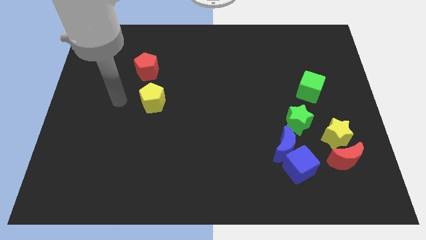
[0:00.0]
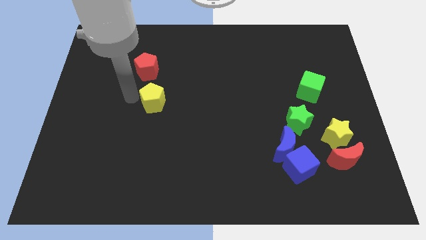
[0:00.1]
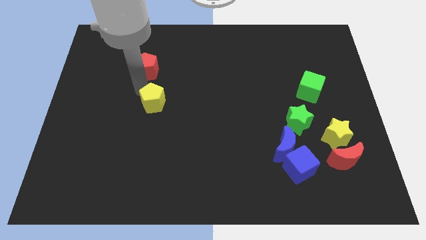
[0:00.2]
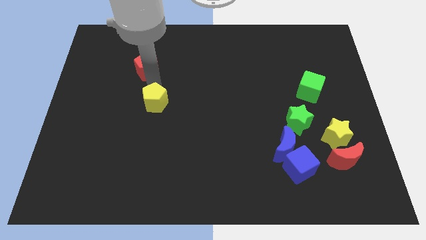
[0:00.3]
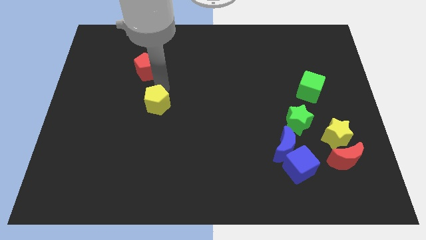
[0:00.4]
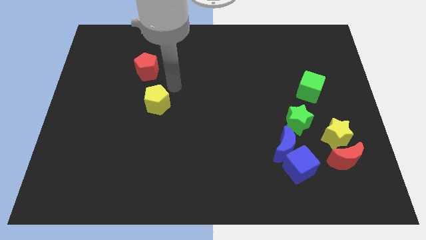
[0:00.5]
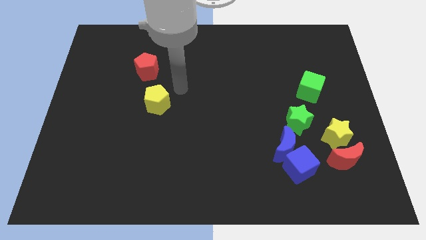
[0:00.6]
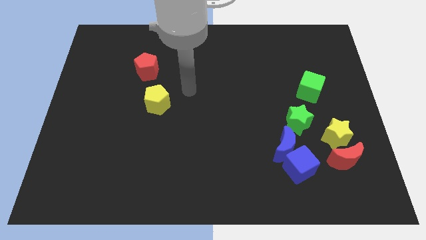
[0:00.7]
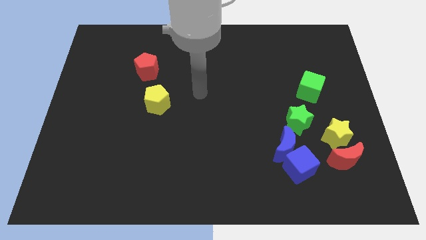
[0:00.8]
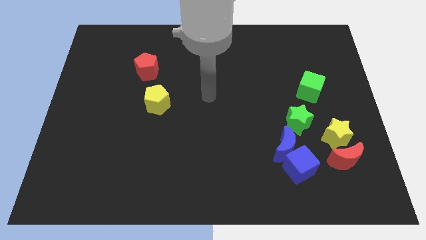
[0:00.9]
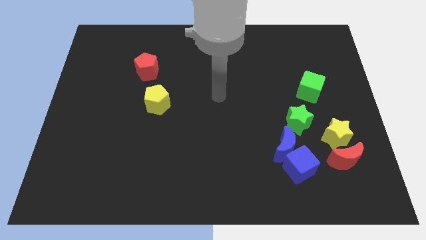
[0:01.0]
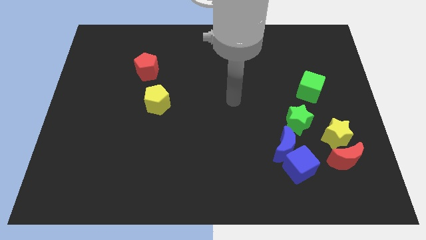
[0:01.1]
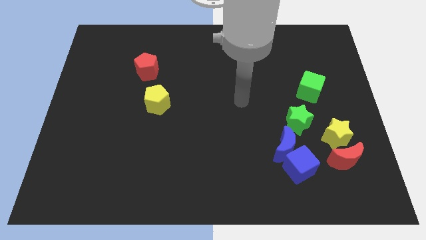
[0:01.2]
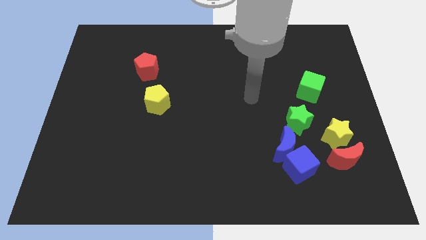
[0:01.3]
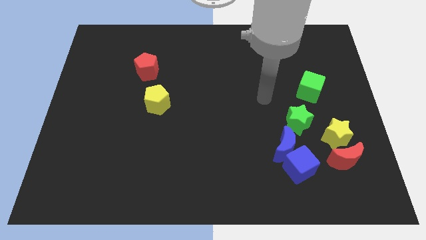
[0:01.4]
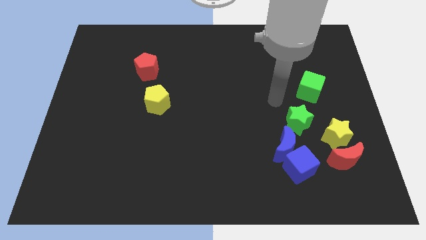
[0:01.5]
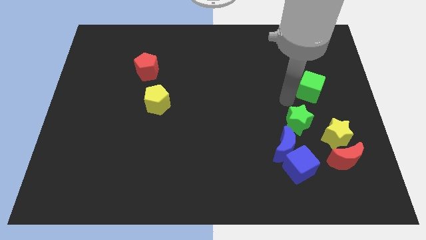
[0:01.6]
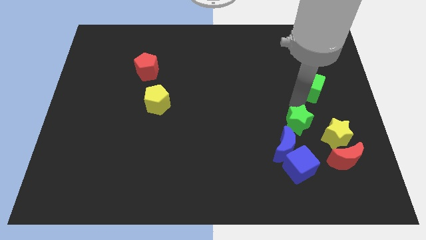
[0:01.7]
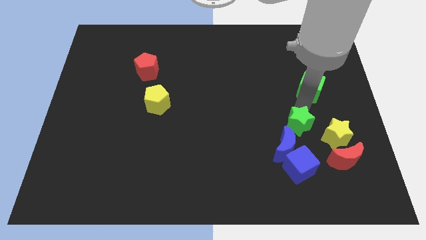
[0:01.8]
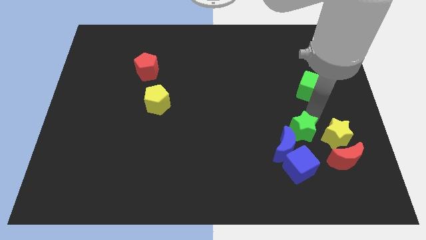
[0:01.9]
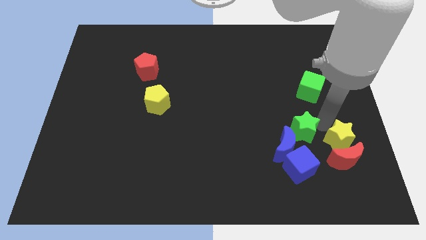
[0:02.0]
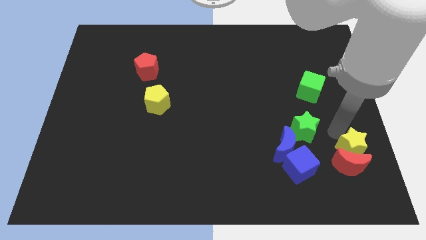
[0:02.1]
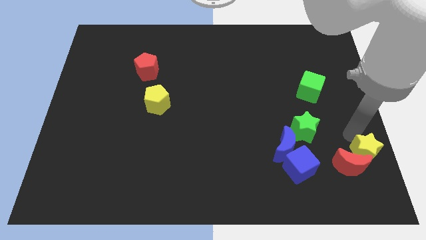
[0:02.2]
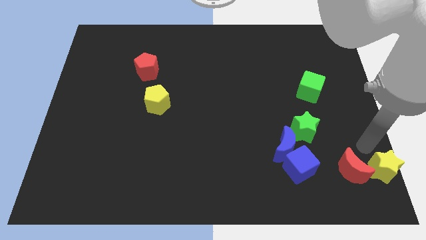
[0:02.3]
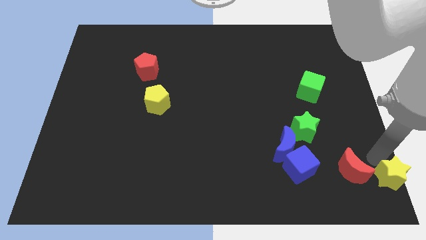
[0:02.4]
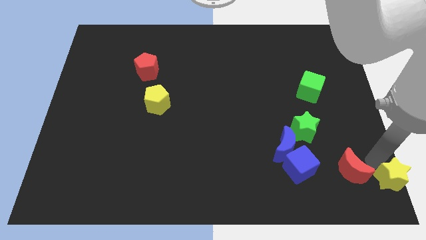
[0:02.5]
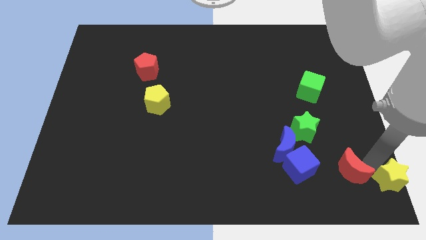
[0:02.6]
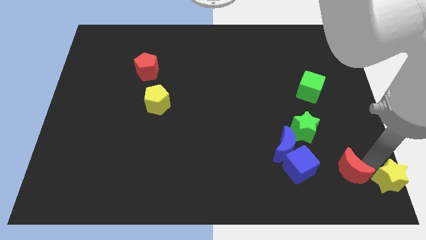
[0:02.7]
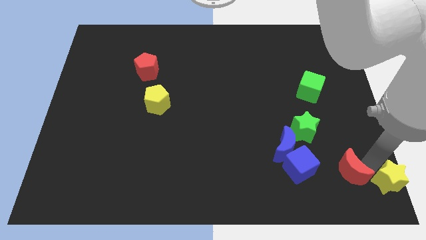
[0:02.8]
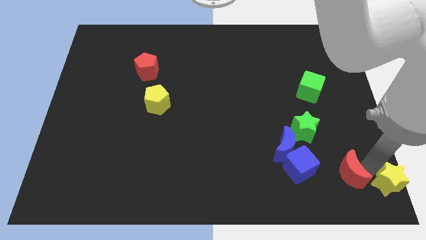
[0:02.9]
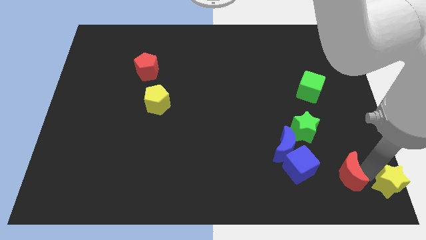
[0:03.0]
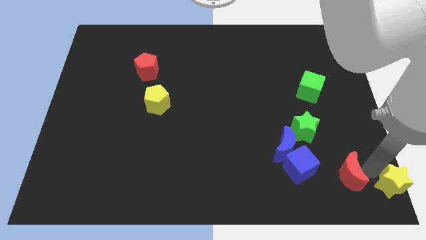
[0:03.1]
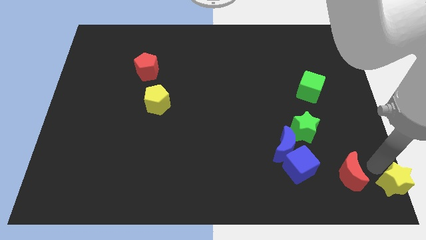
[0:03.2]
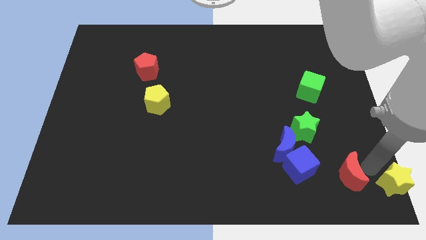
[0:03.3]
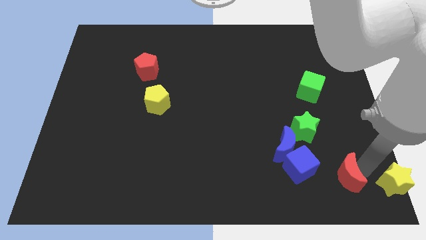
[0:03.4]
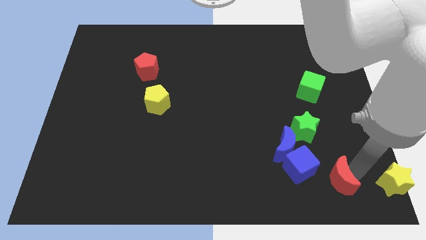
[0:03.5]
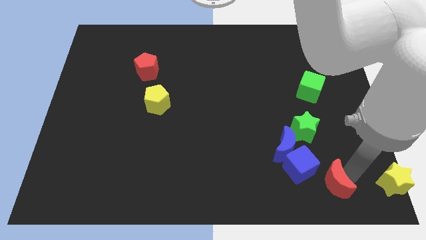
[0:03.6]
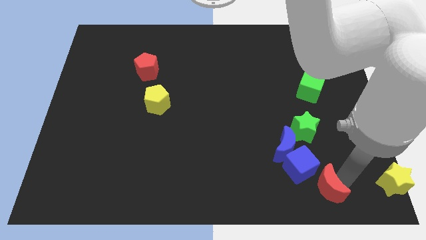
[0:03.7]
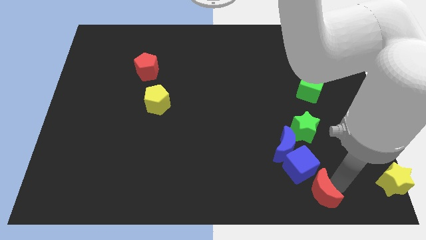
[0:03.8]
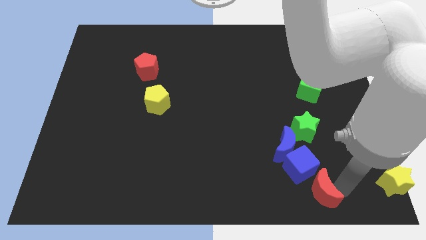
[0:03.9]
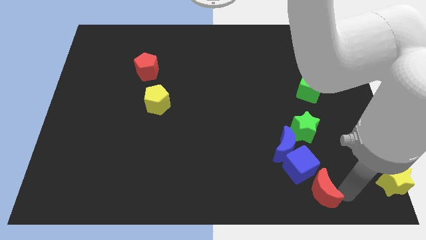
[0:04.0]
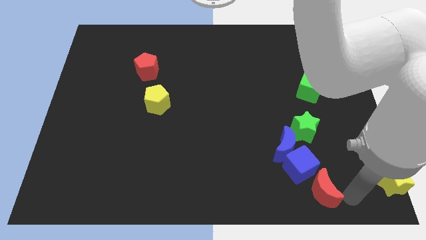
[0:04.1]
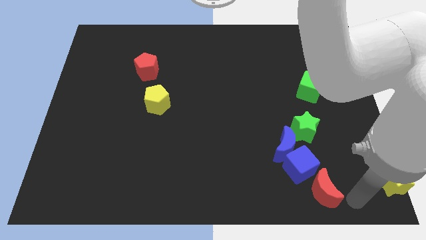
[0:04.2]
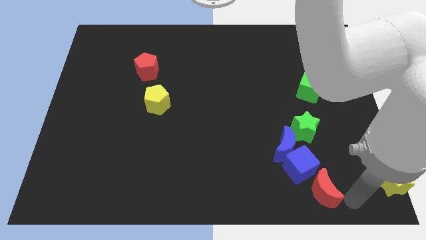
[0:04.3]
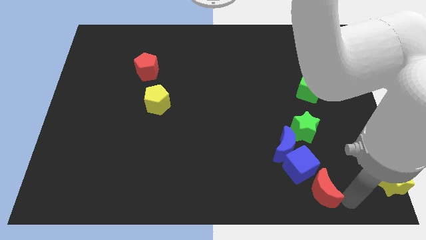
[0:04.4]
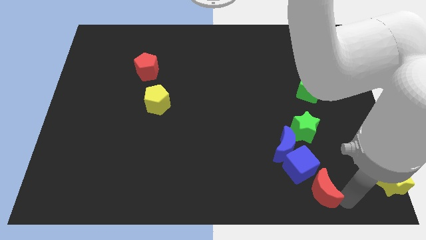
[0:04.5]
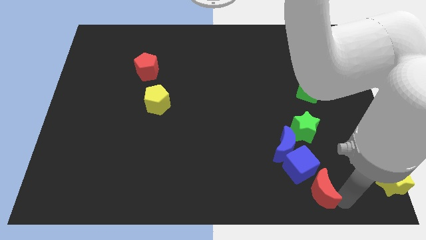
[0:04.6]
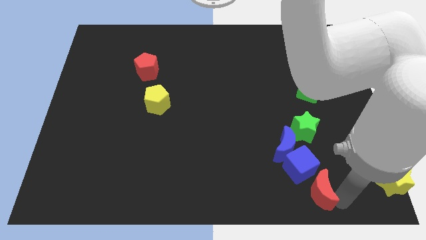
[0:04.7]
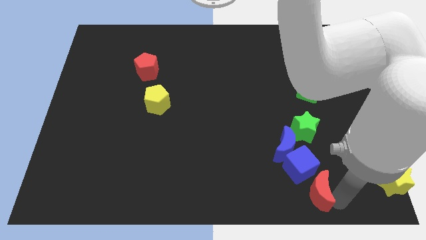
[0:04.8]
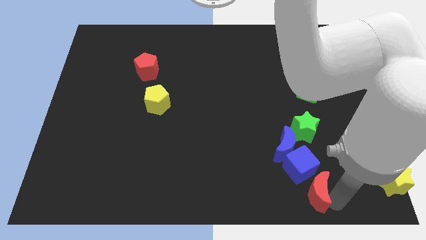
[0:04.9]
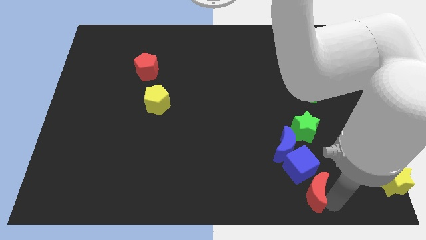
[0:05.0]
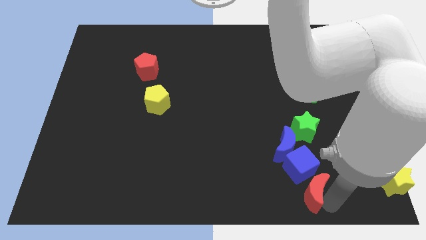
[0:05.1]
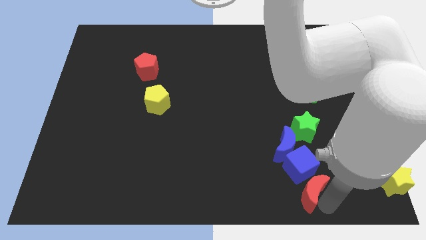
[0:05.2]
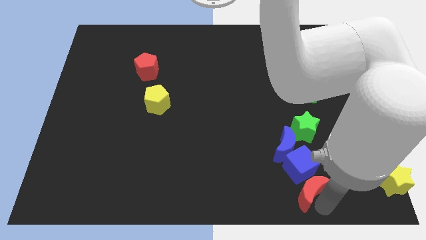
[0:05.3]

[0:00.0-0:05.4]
slightly move the red moon left

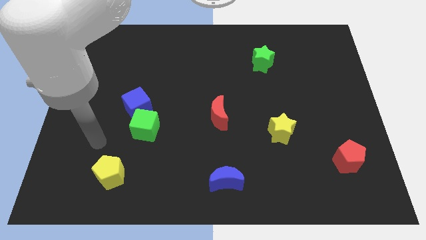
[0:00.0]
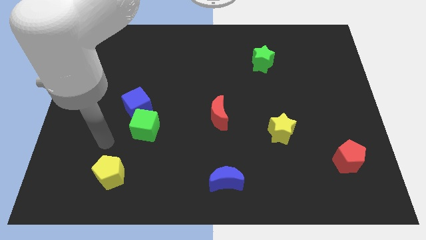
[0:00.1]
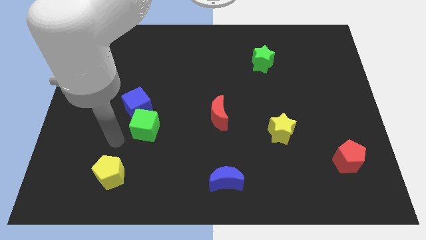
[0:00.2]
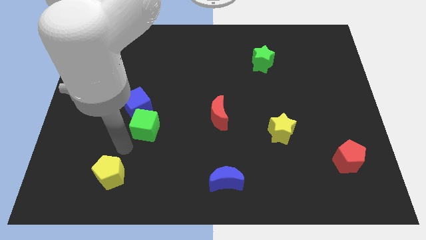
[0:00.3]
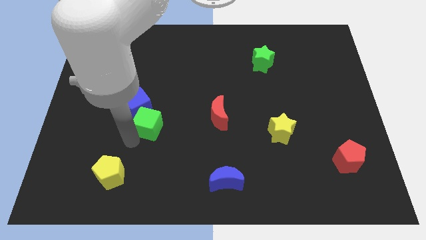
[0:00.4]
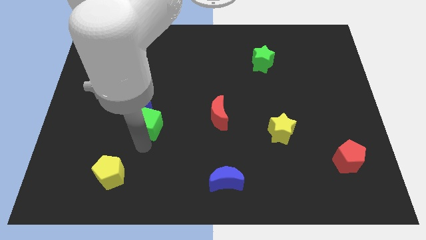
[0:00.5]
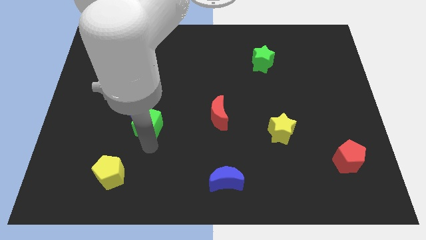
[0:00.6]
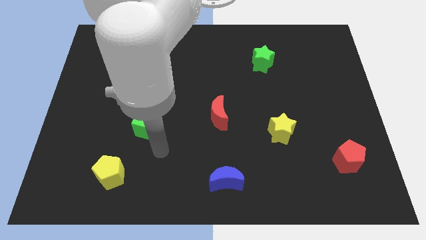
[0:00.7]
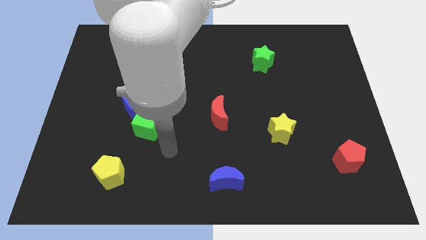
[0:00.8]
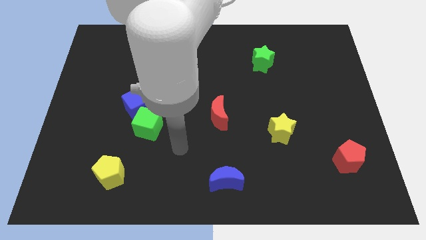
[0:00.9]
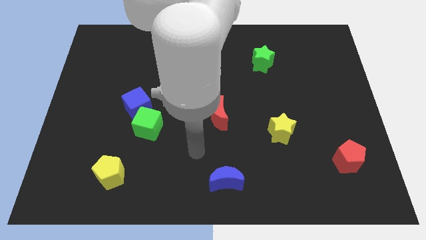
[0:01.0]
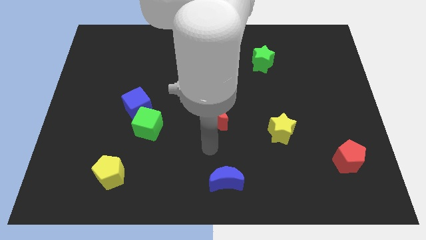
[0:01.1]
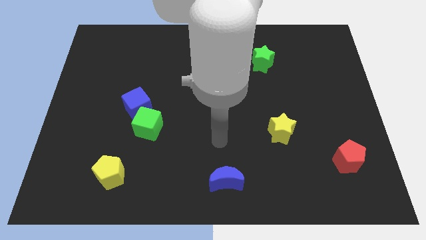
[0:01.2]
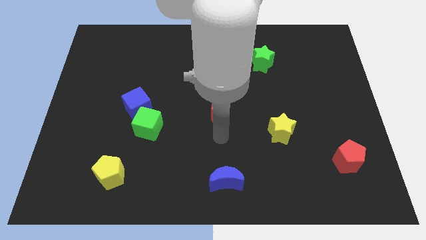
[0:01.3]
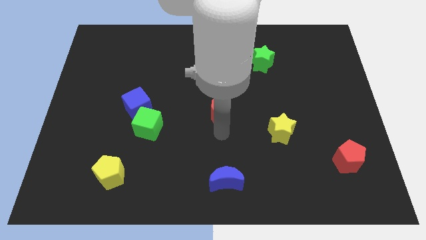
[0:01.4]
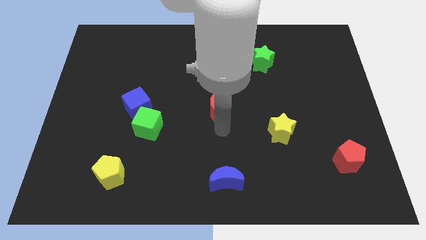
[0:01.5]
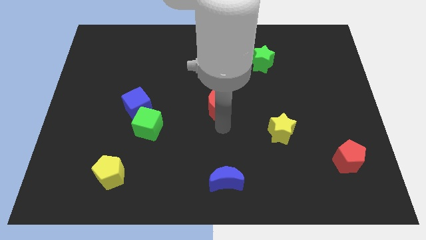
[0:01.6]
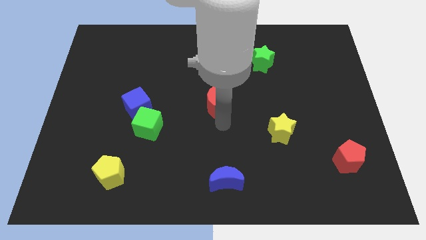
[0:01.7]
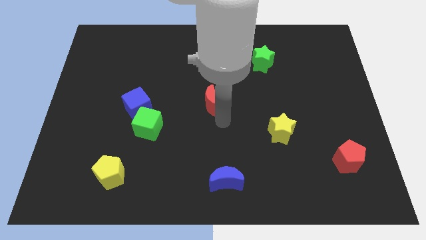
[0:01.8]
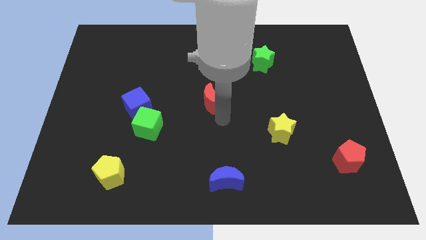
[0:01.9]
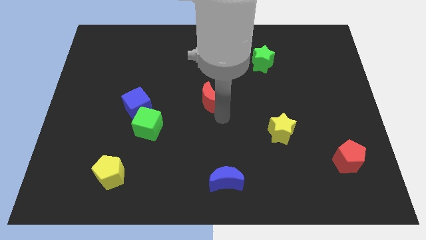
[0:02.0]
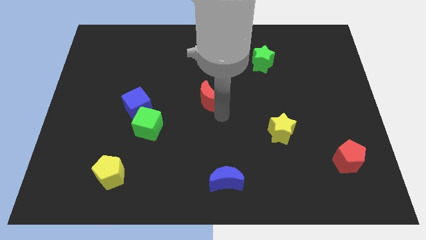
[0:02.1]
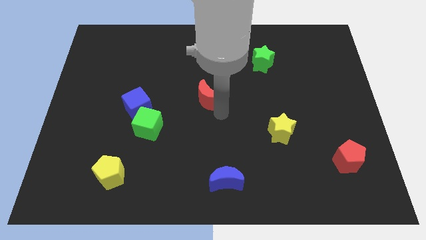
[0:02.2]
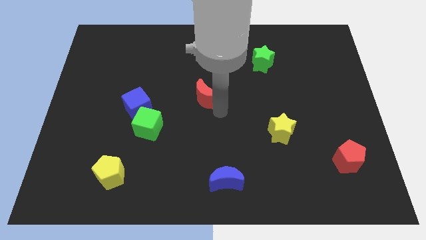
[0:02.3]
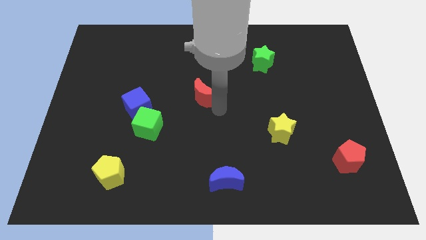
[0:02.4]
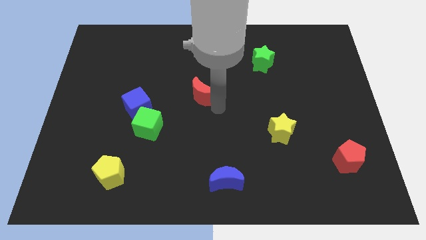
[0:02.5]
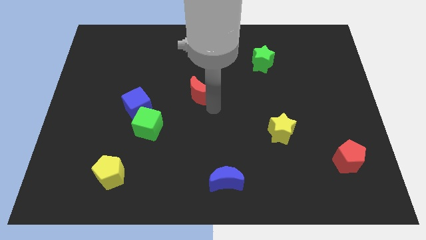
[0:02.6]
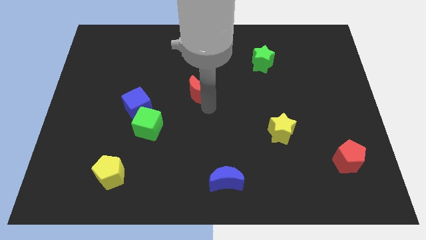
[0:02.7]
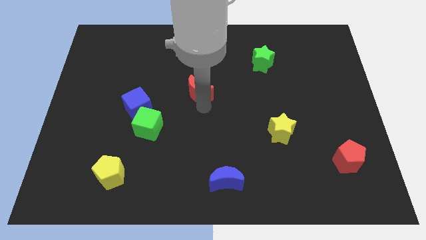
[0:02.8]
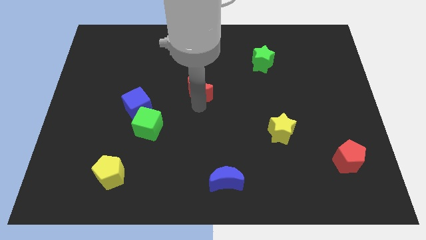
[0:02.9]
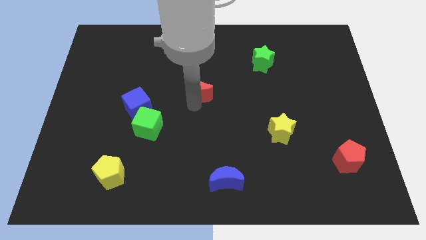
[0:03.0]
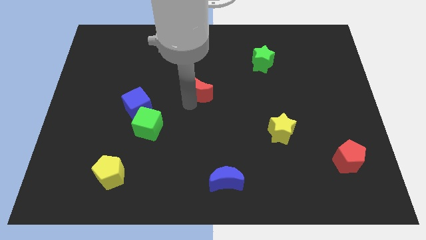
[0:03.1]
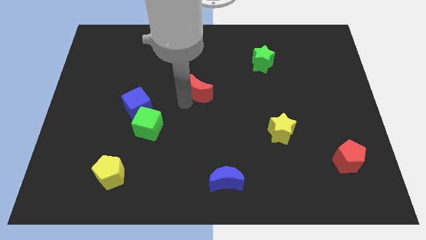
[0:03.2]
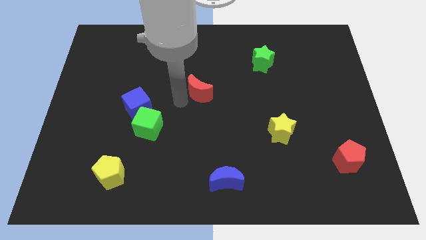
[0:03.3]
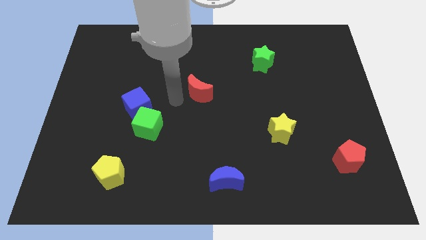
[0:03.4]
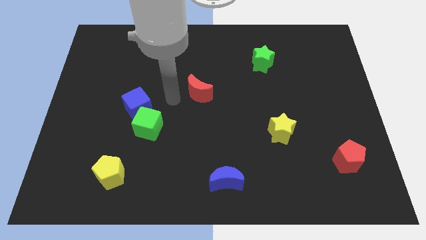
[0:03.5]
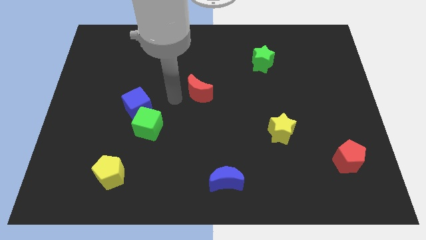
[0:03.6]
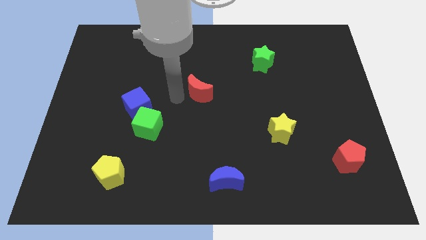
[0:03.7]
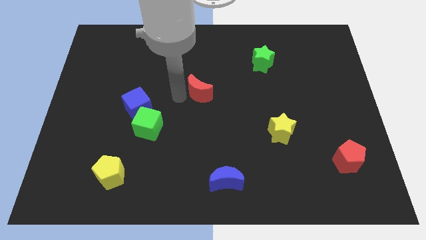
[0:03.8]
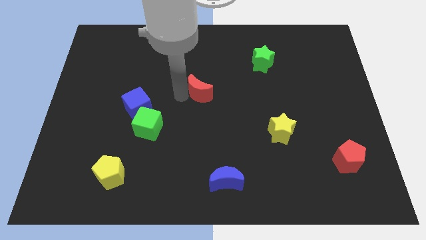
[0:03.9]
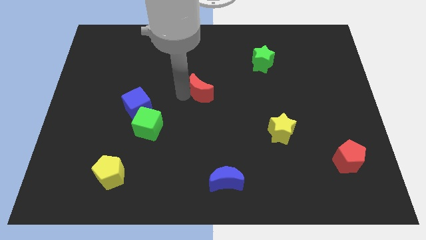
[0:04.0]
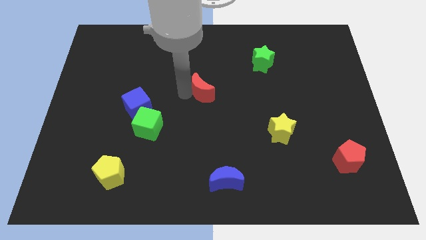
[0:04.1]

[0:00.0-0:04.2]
move the red moon slightly upwards
